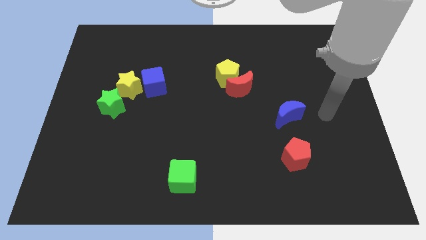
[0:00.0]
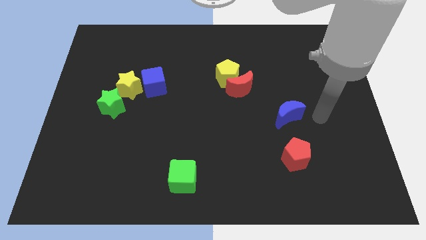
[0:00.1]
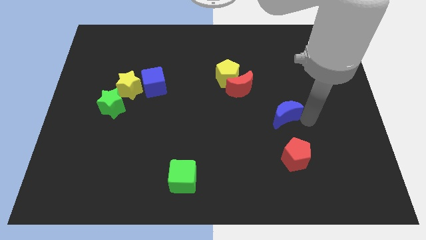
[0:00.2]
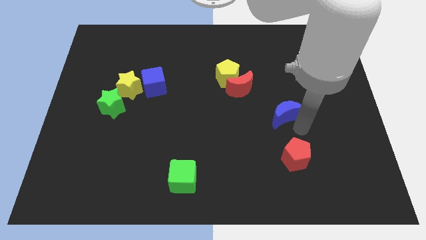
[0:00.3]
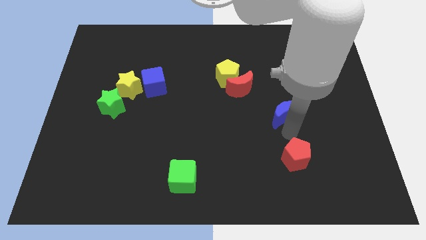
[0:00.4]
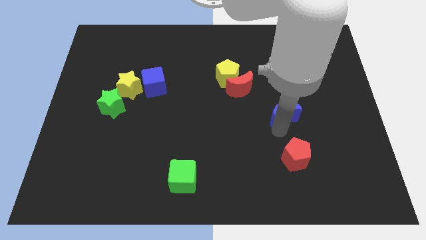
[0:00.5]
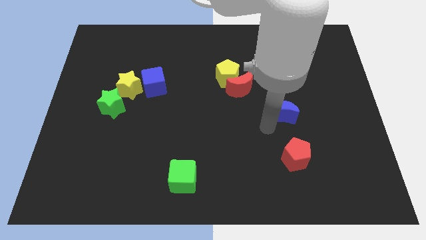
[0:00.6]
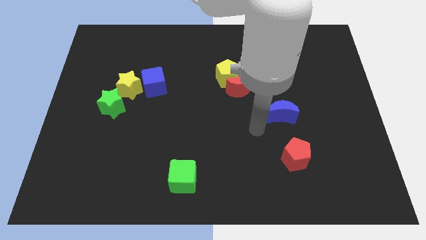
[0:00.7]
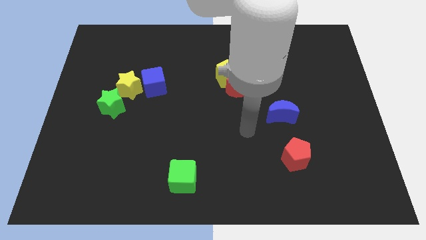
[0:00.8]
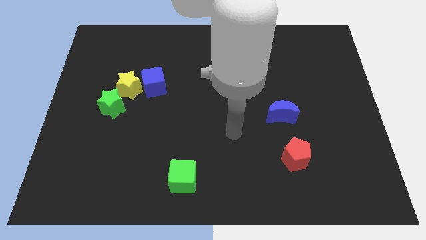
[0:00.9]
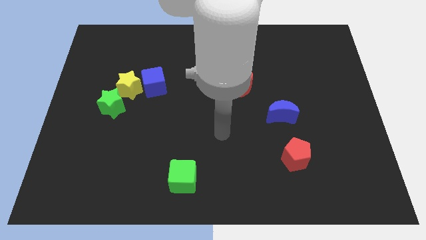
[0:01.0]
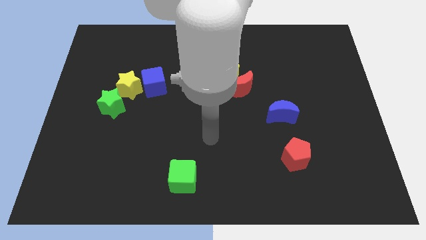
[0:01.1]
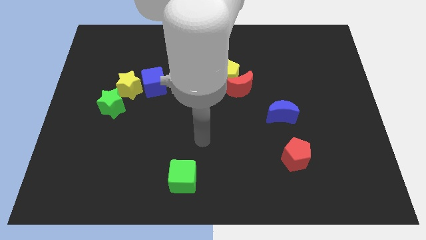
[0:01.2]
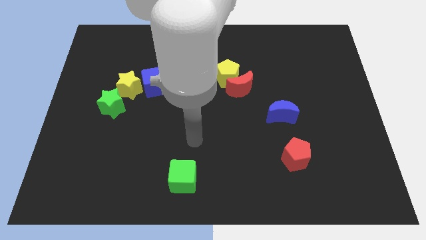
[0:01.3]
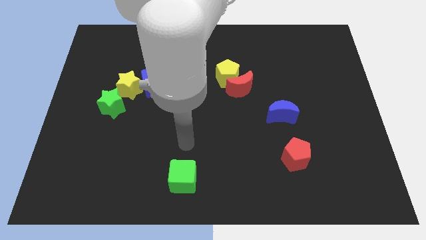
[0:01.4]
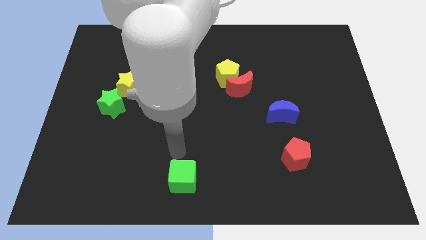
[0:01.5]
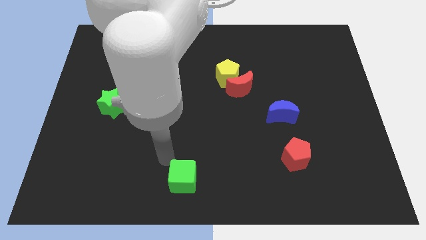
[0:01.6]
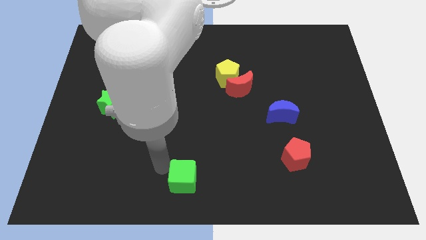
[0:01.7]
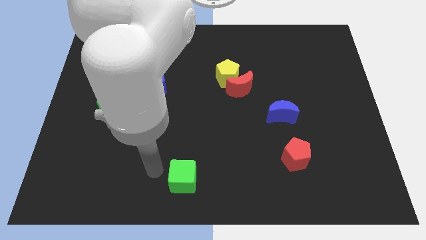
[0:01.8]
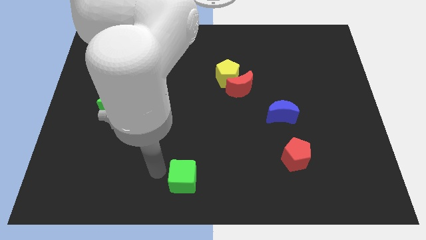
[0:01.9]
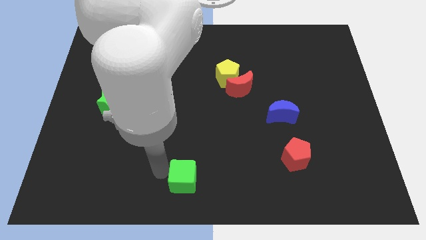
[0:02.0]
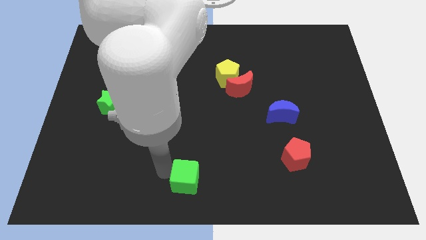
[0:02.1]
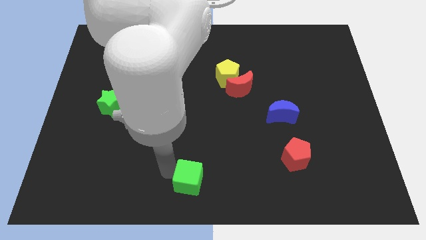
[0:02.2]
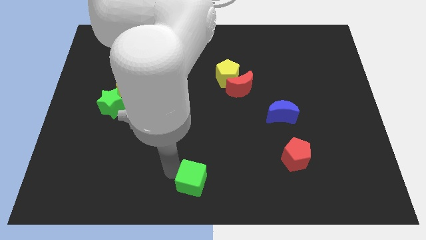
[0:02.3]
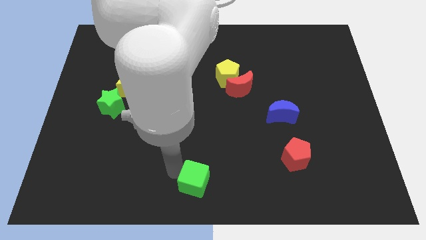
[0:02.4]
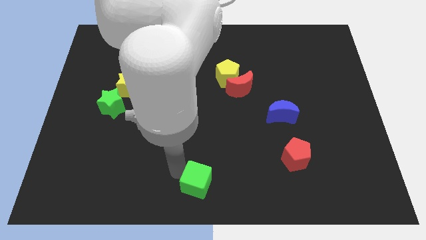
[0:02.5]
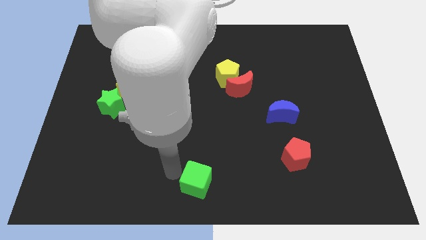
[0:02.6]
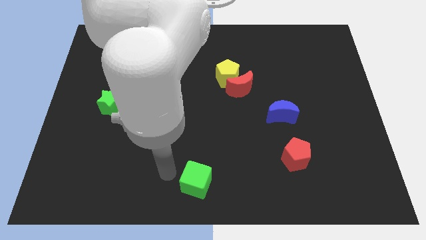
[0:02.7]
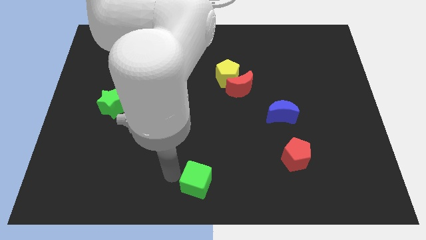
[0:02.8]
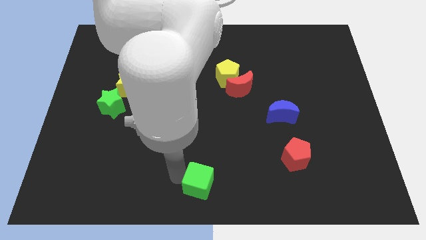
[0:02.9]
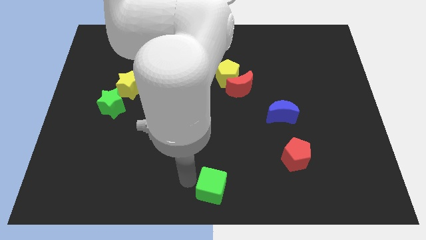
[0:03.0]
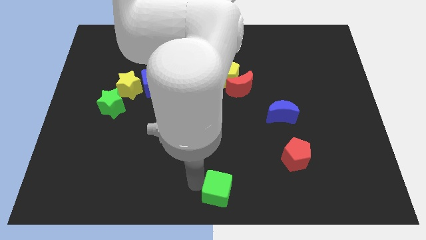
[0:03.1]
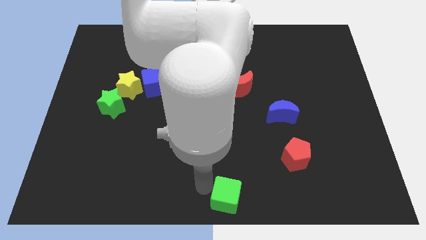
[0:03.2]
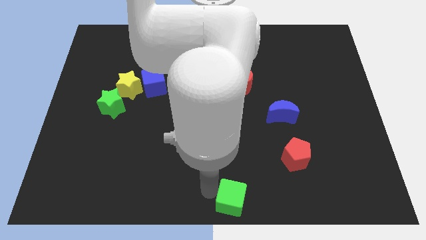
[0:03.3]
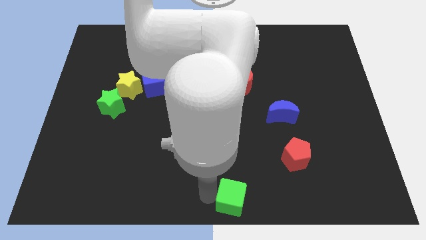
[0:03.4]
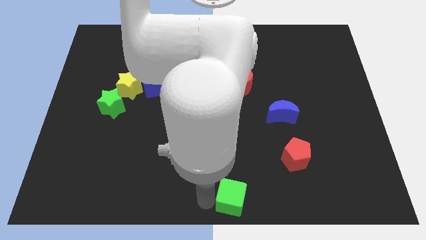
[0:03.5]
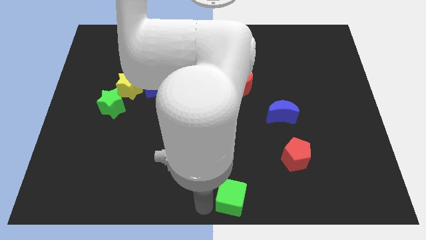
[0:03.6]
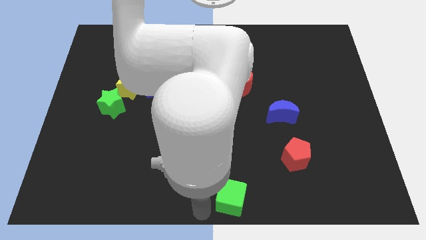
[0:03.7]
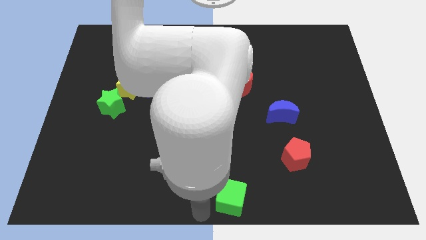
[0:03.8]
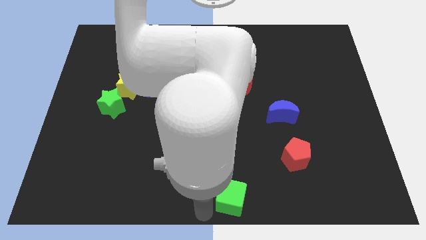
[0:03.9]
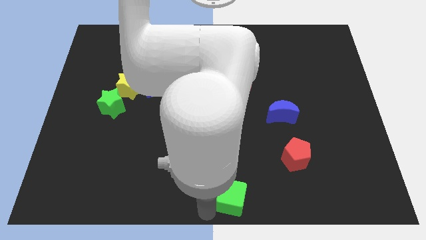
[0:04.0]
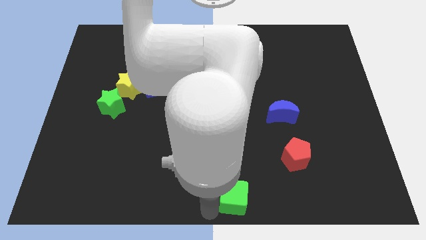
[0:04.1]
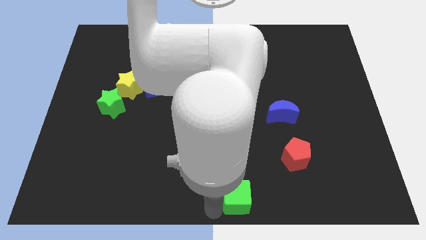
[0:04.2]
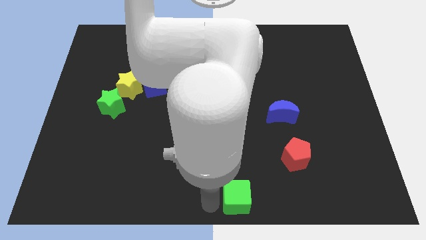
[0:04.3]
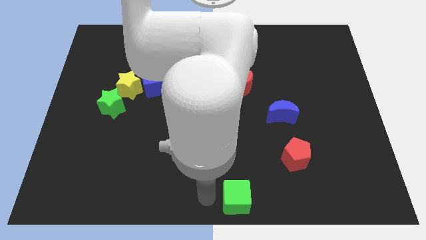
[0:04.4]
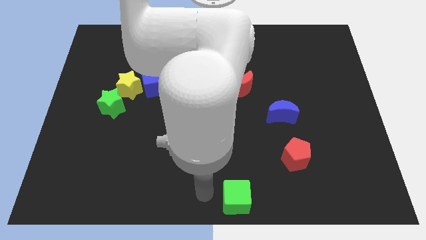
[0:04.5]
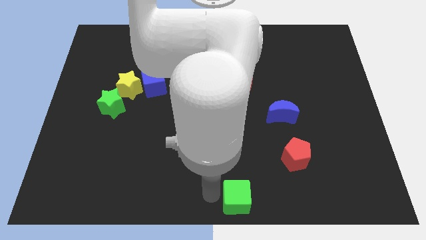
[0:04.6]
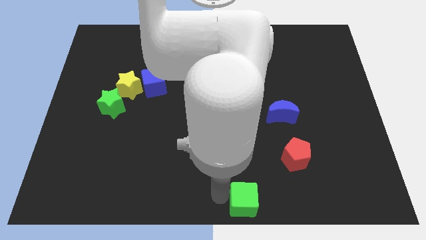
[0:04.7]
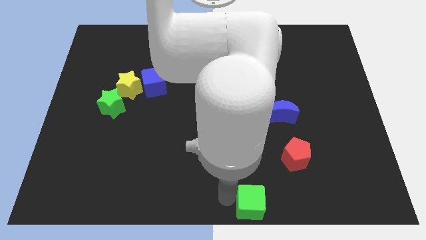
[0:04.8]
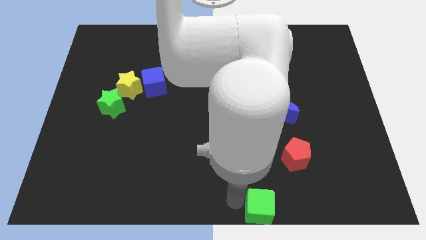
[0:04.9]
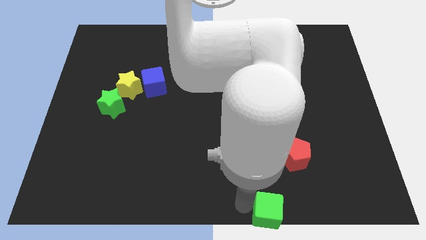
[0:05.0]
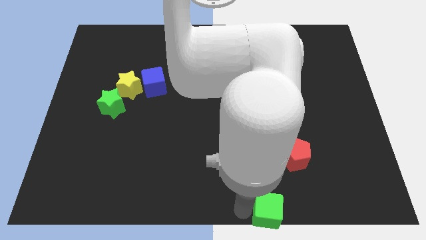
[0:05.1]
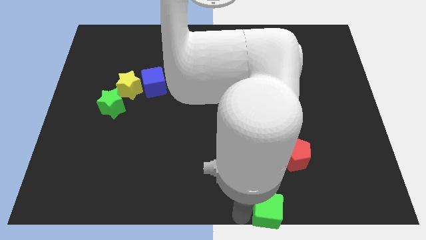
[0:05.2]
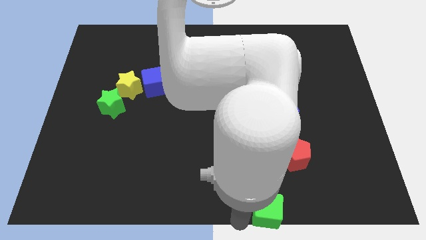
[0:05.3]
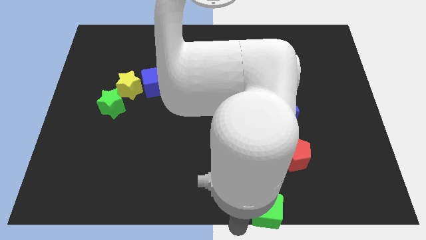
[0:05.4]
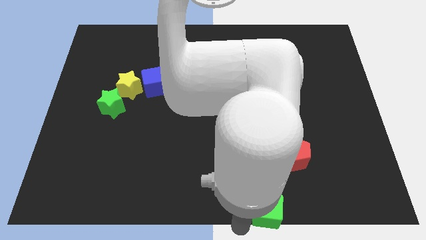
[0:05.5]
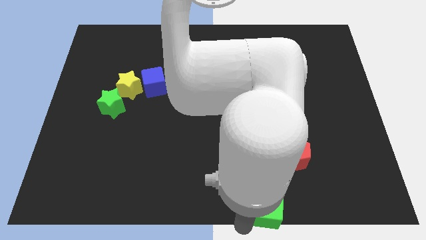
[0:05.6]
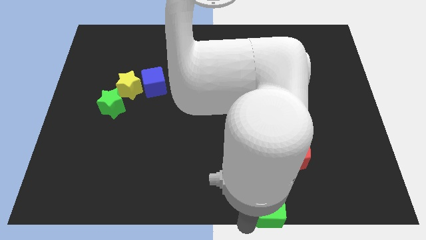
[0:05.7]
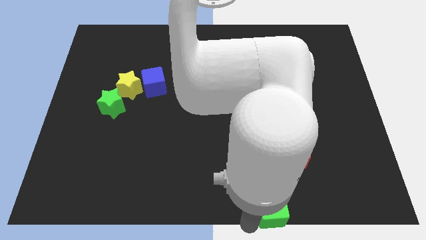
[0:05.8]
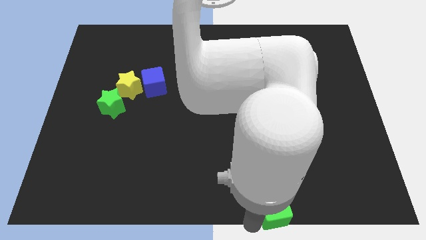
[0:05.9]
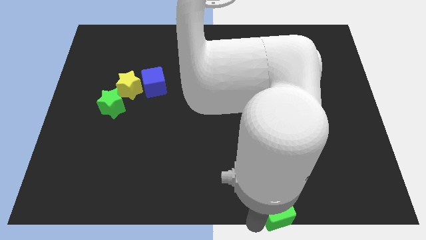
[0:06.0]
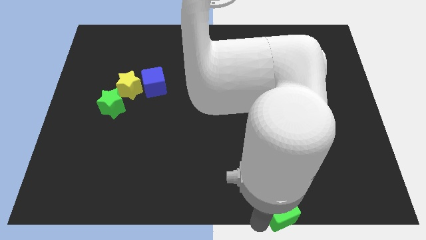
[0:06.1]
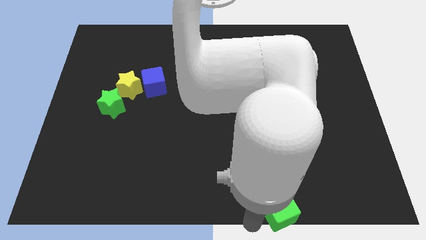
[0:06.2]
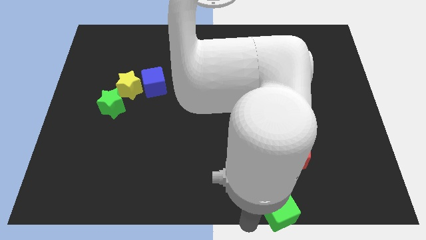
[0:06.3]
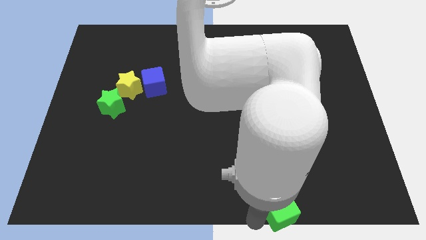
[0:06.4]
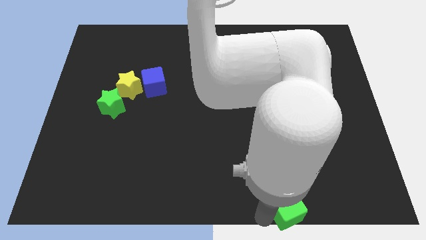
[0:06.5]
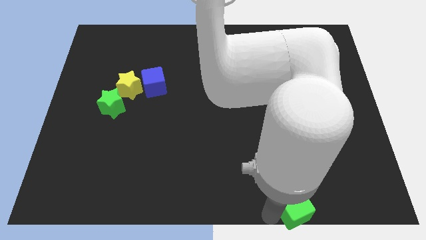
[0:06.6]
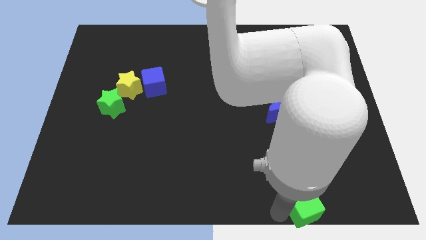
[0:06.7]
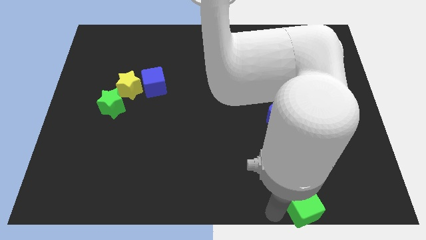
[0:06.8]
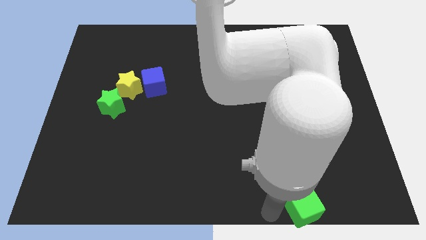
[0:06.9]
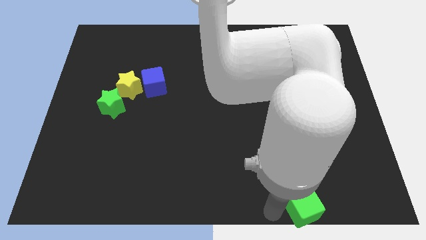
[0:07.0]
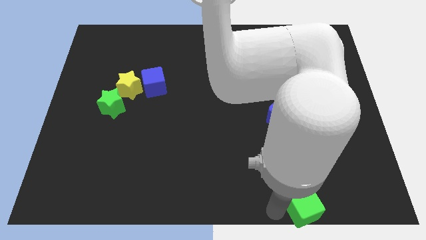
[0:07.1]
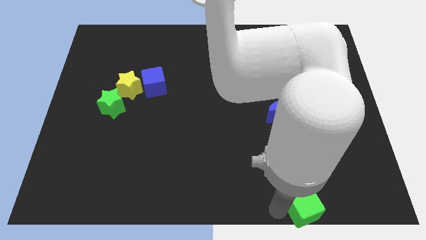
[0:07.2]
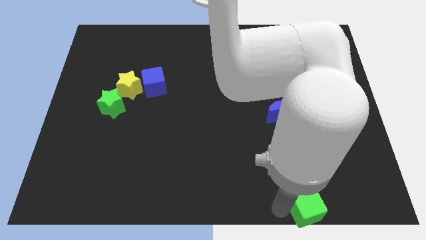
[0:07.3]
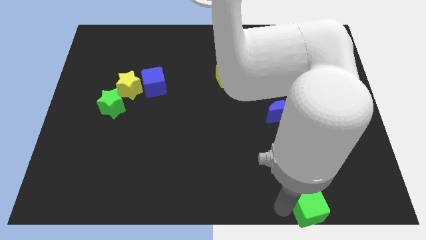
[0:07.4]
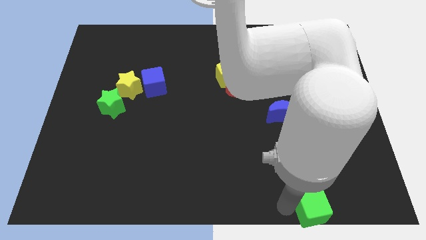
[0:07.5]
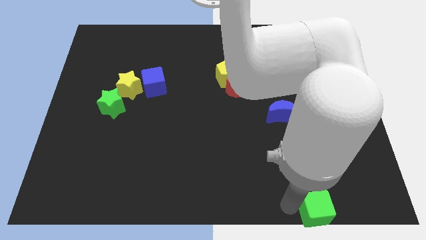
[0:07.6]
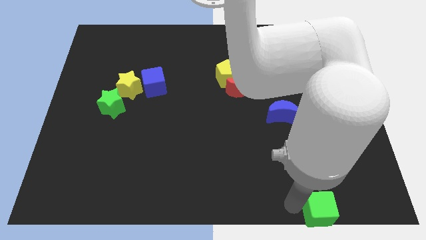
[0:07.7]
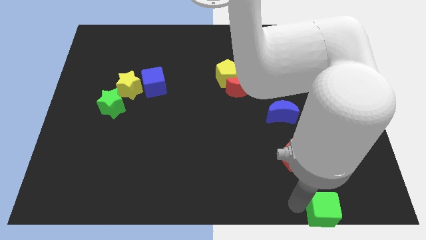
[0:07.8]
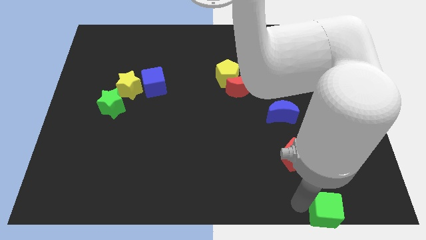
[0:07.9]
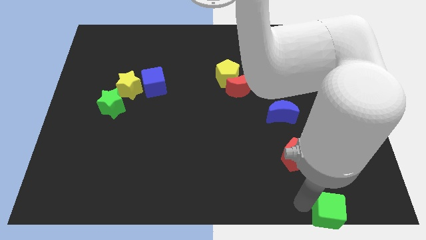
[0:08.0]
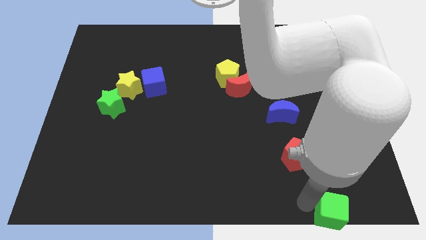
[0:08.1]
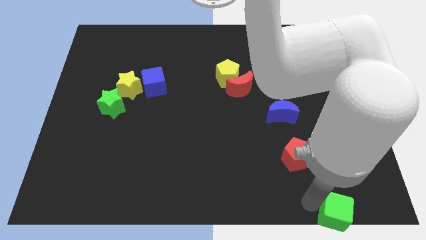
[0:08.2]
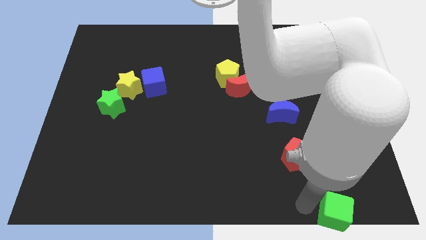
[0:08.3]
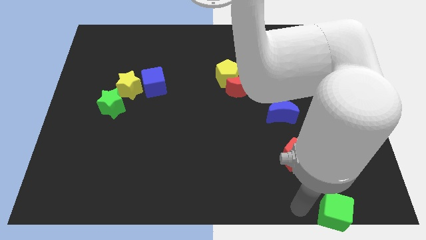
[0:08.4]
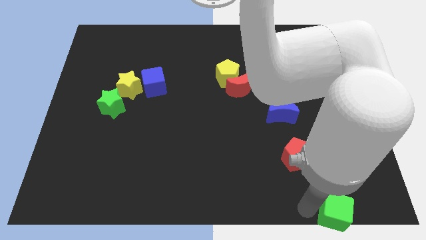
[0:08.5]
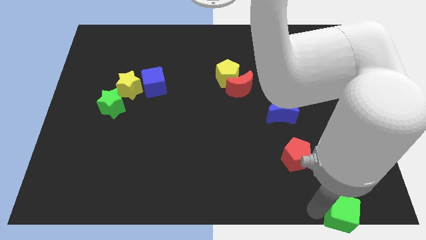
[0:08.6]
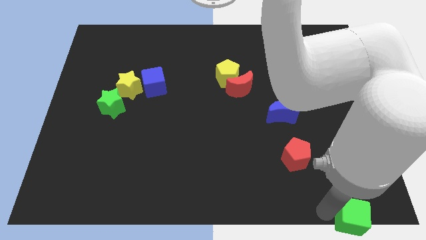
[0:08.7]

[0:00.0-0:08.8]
put the green cube to the lower right corner
